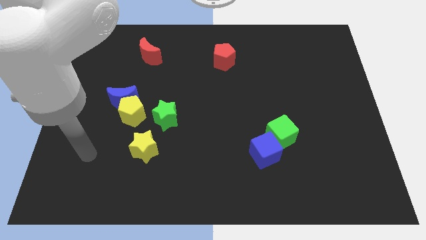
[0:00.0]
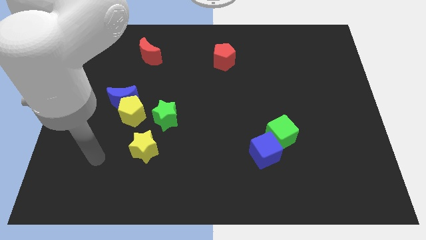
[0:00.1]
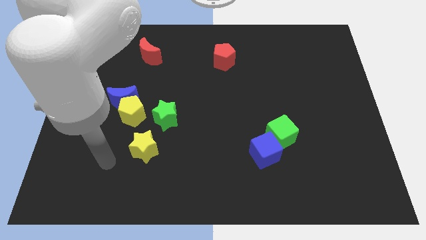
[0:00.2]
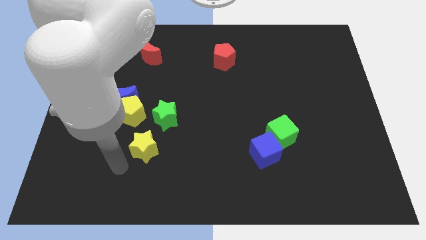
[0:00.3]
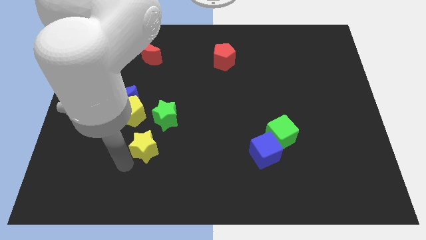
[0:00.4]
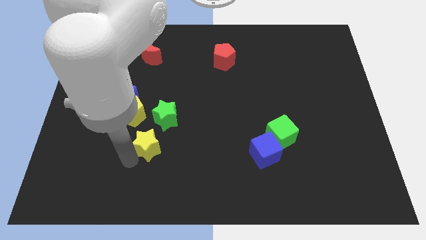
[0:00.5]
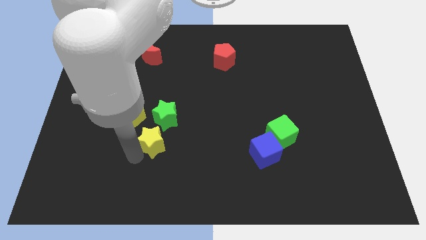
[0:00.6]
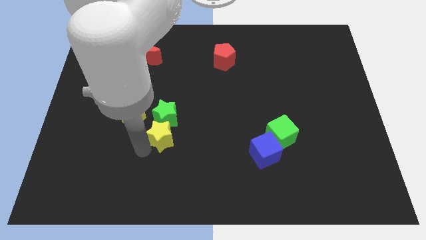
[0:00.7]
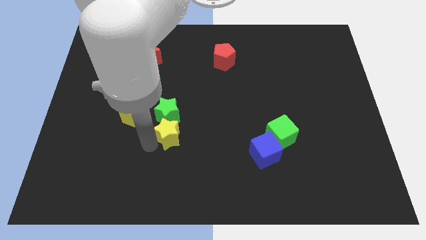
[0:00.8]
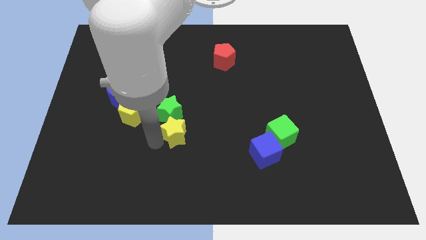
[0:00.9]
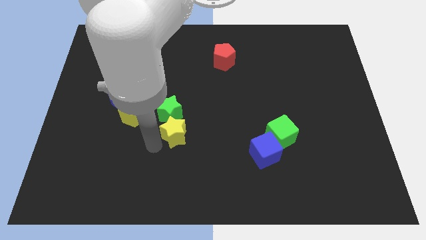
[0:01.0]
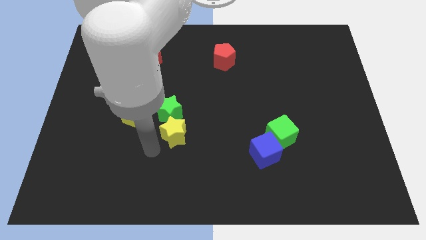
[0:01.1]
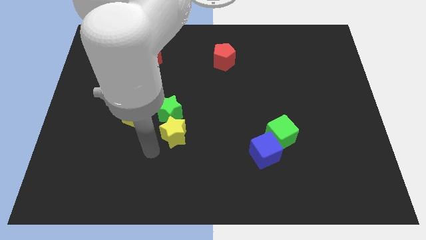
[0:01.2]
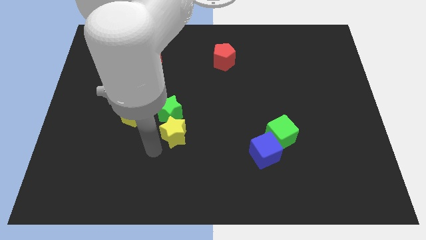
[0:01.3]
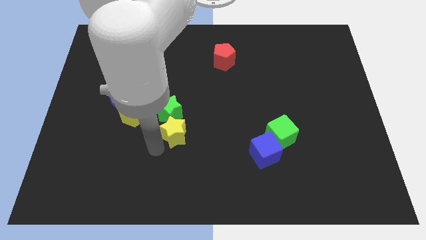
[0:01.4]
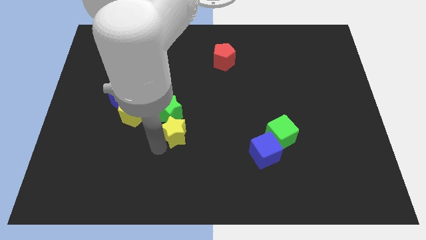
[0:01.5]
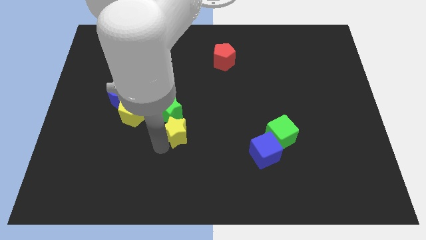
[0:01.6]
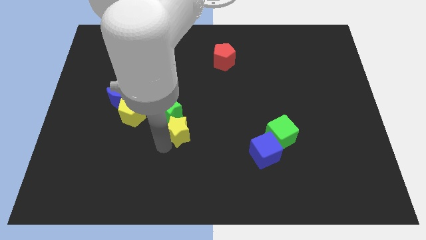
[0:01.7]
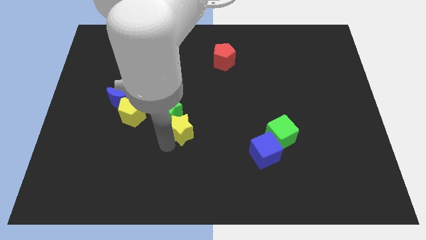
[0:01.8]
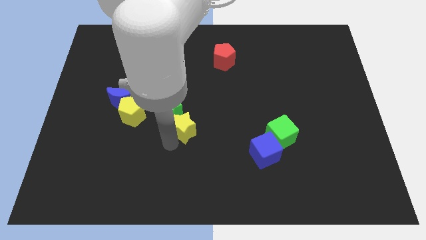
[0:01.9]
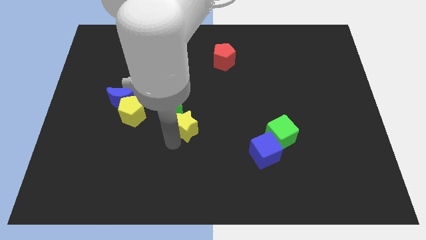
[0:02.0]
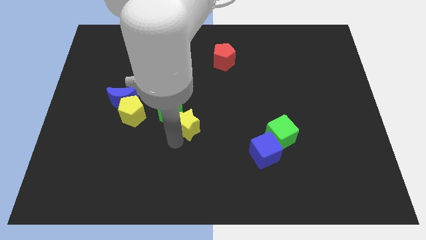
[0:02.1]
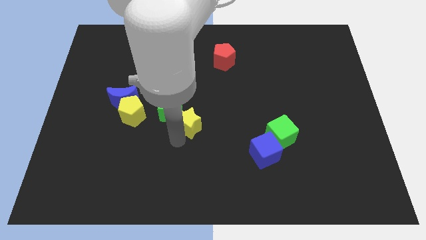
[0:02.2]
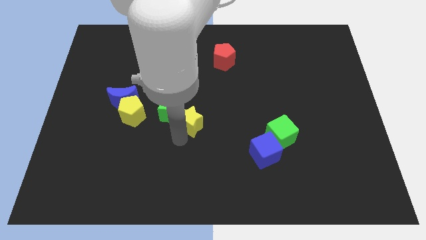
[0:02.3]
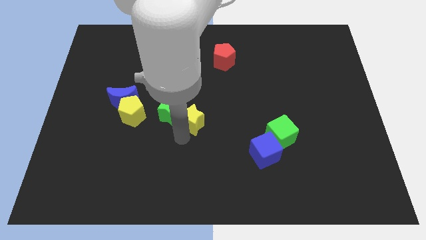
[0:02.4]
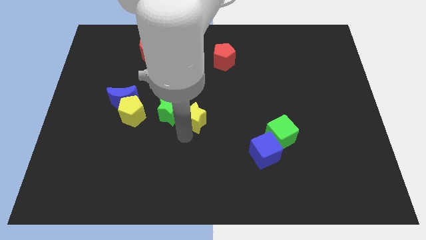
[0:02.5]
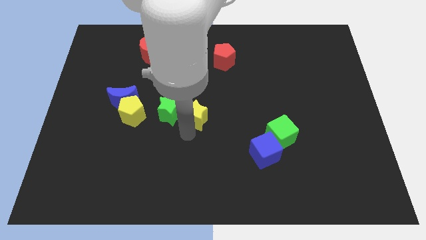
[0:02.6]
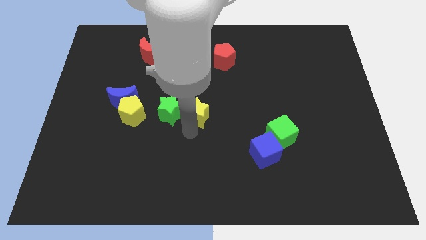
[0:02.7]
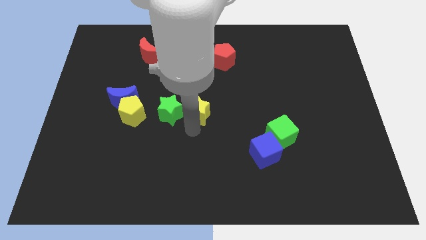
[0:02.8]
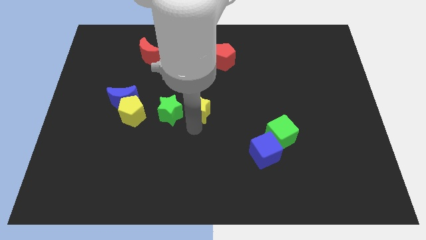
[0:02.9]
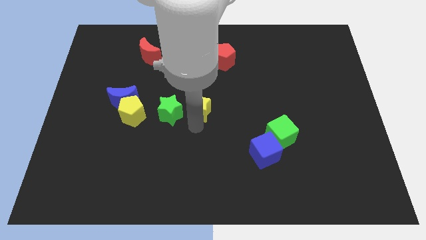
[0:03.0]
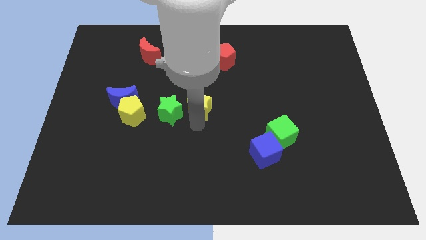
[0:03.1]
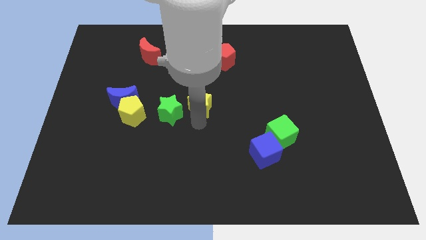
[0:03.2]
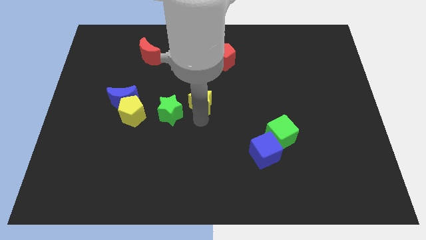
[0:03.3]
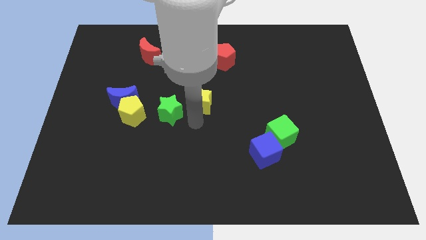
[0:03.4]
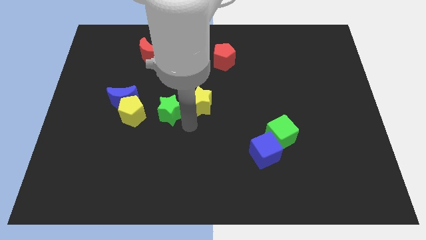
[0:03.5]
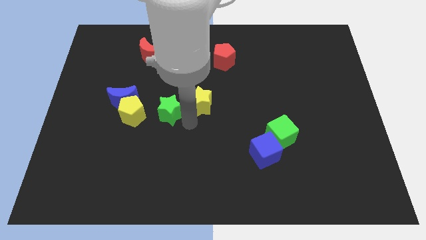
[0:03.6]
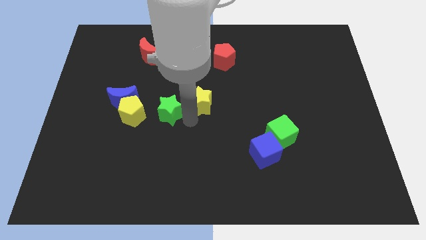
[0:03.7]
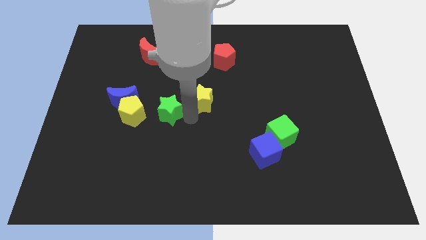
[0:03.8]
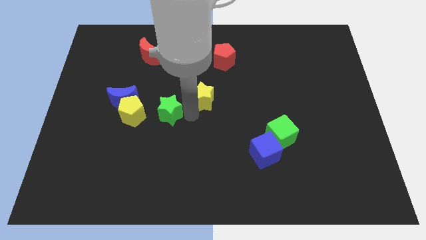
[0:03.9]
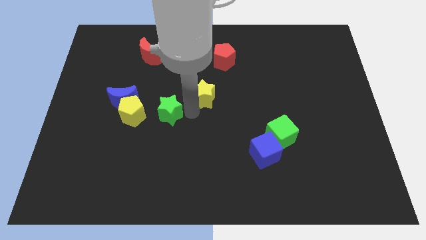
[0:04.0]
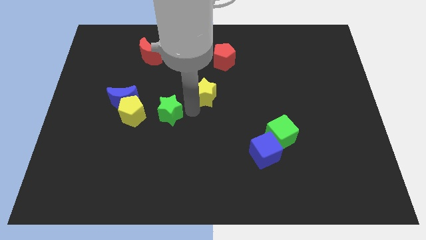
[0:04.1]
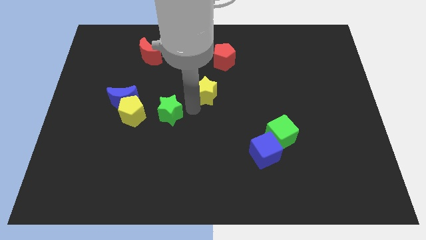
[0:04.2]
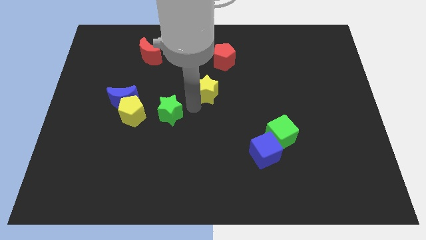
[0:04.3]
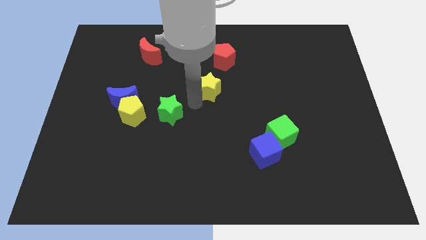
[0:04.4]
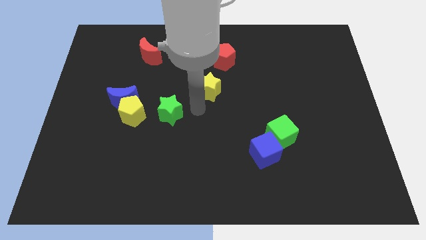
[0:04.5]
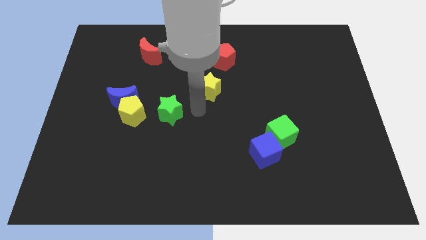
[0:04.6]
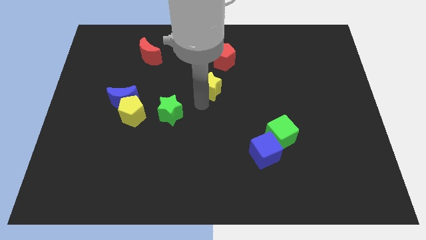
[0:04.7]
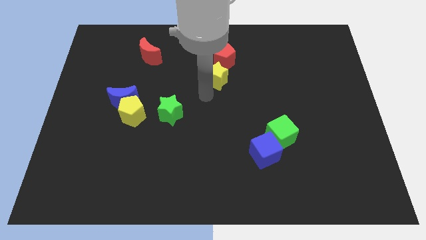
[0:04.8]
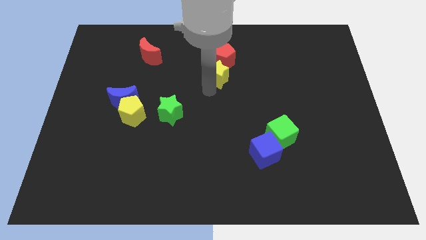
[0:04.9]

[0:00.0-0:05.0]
slide the yellow star towards the red pentagon

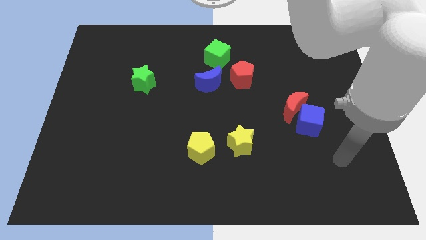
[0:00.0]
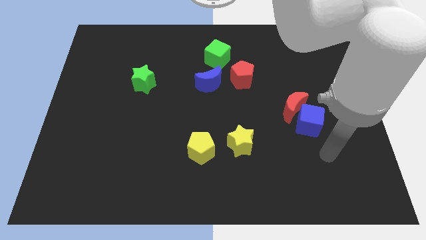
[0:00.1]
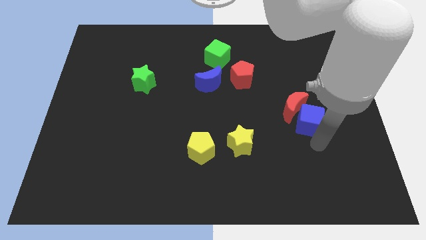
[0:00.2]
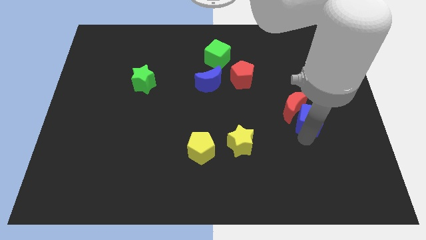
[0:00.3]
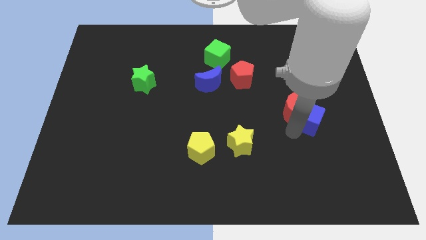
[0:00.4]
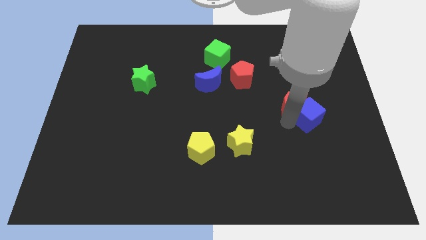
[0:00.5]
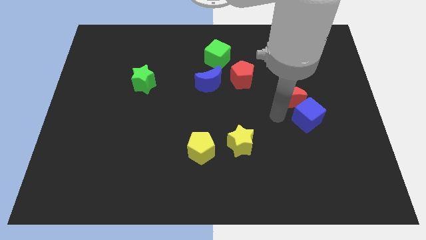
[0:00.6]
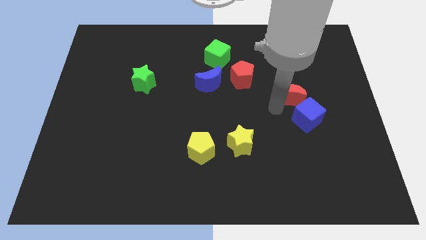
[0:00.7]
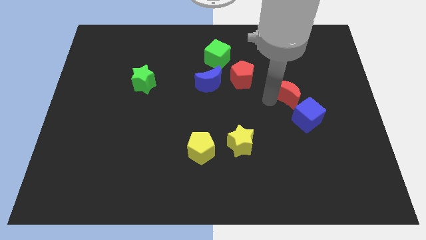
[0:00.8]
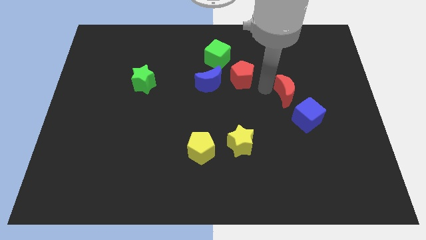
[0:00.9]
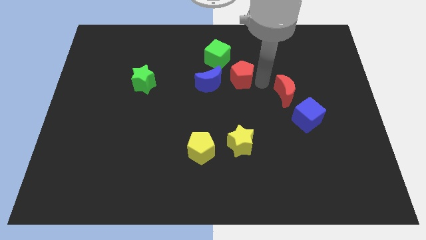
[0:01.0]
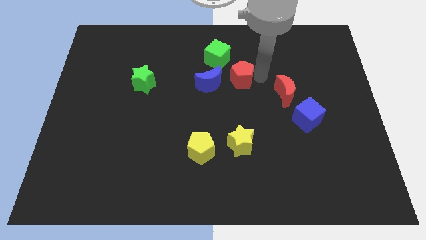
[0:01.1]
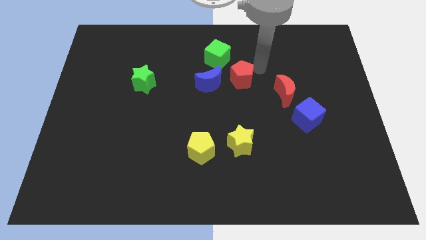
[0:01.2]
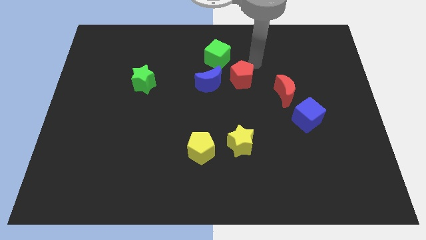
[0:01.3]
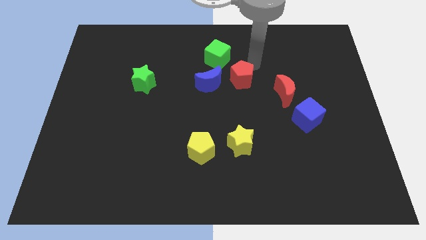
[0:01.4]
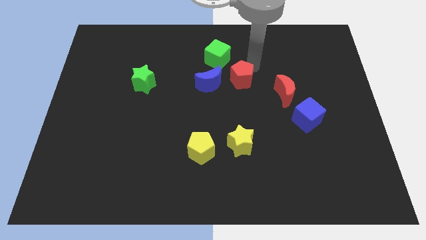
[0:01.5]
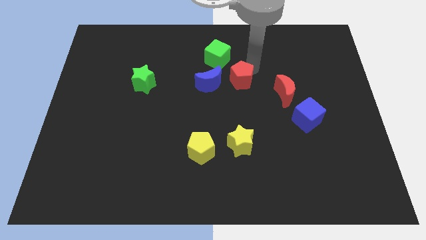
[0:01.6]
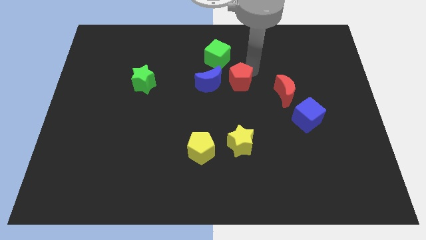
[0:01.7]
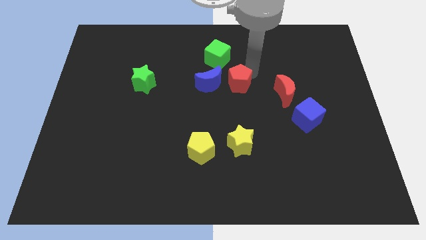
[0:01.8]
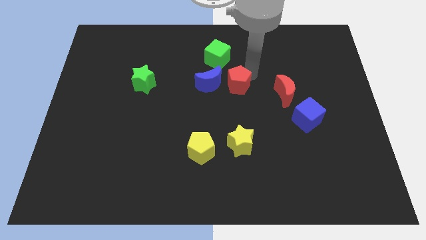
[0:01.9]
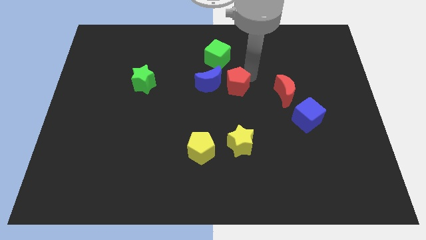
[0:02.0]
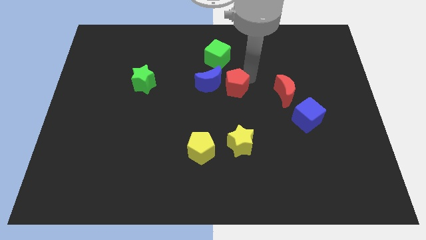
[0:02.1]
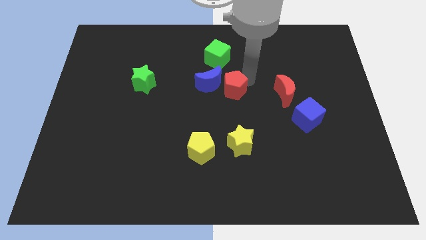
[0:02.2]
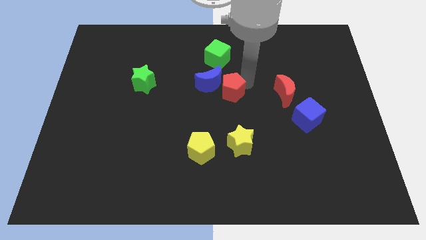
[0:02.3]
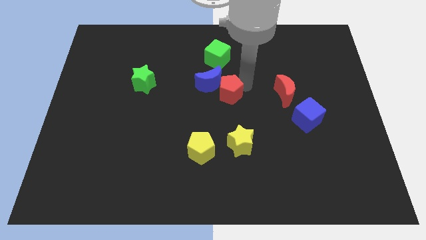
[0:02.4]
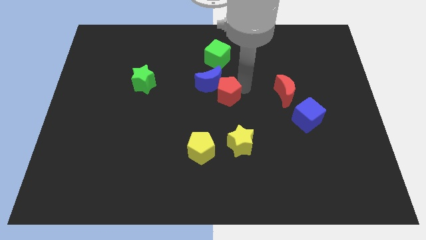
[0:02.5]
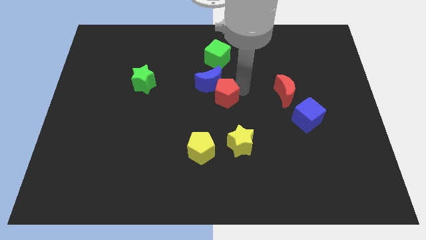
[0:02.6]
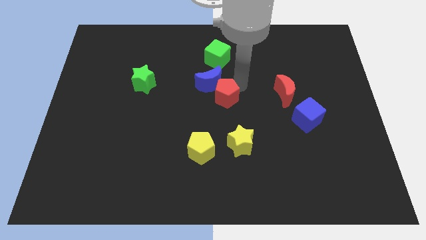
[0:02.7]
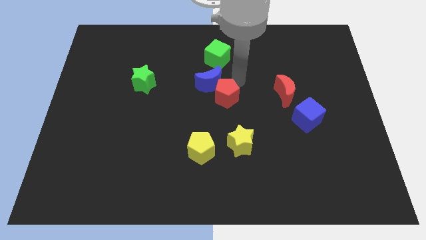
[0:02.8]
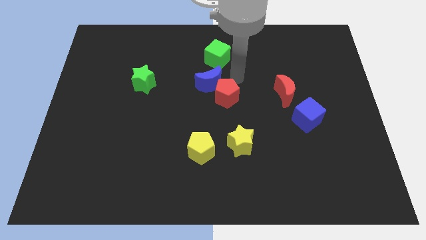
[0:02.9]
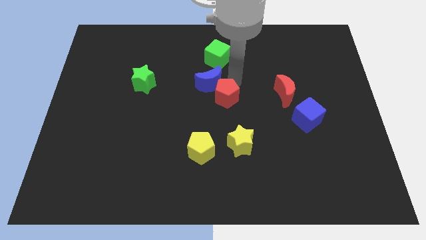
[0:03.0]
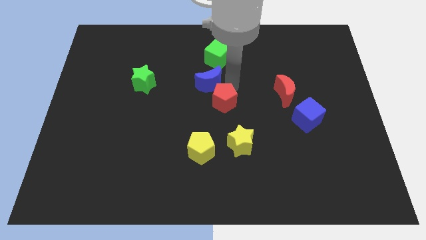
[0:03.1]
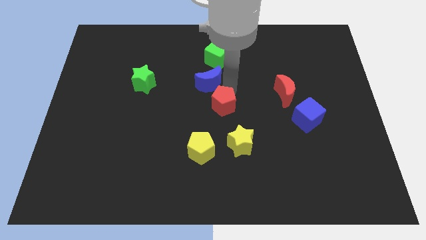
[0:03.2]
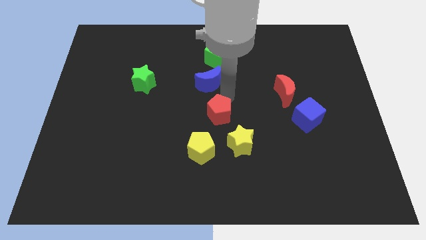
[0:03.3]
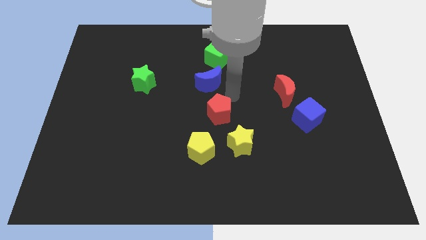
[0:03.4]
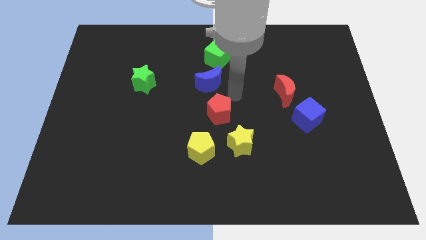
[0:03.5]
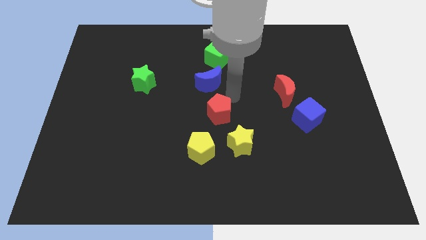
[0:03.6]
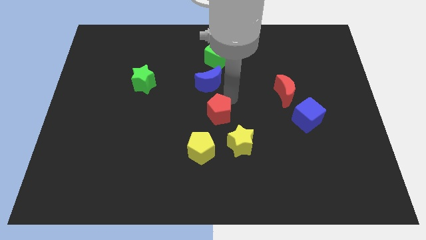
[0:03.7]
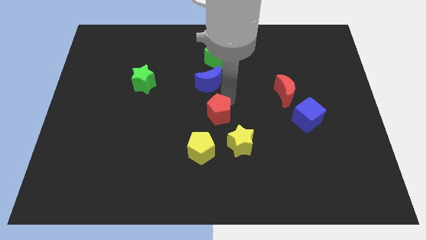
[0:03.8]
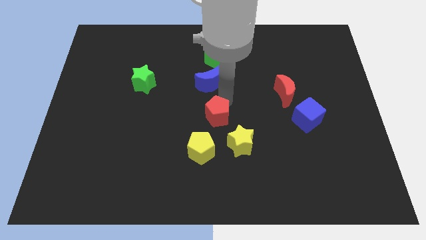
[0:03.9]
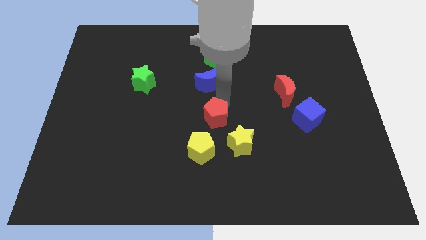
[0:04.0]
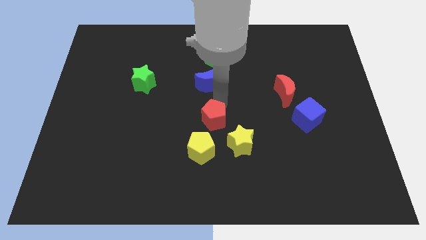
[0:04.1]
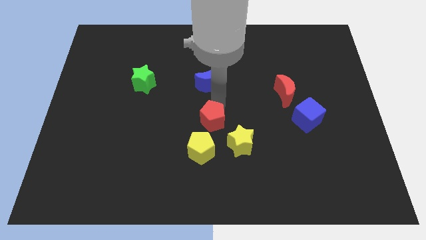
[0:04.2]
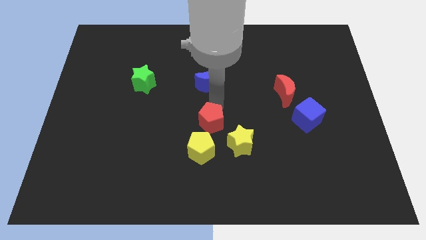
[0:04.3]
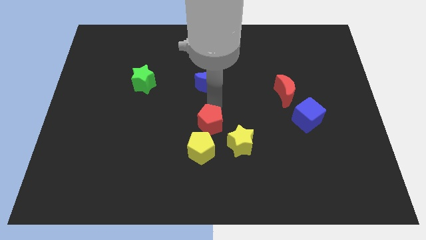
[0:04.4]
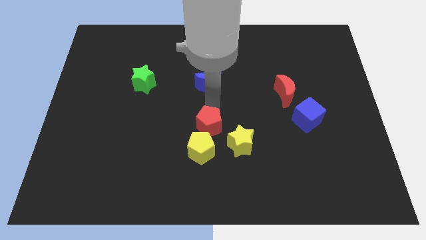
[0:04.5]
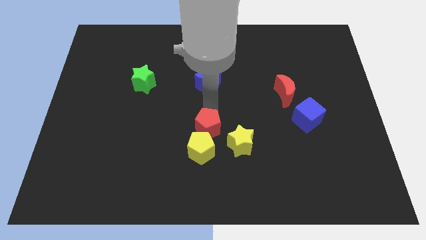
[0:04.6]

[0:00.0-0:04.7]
put the red pentagon towards the yellow pentagon
